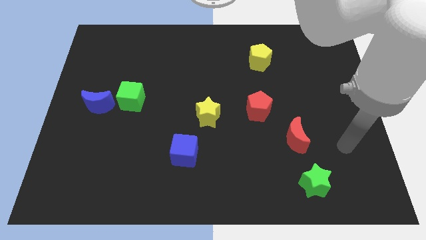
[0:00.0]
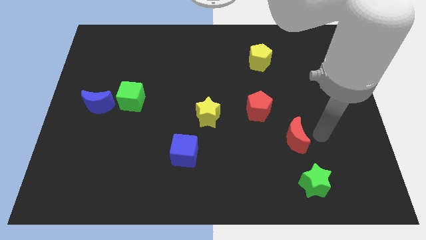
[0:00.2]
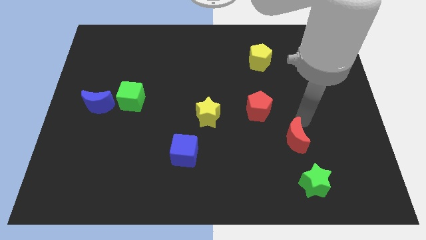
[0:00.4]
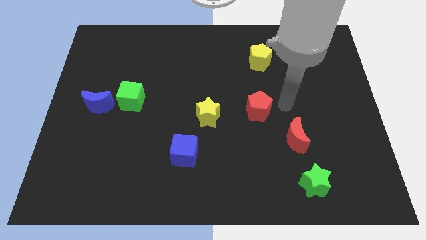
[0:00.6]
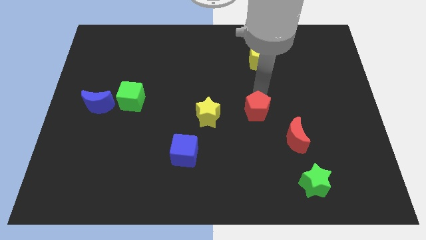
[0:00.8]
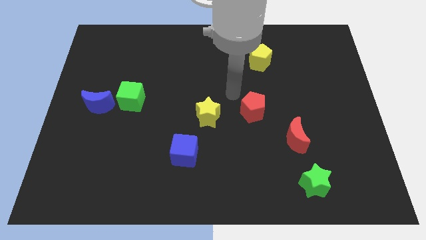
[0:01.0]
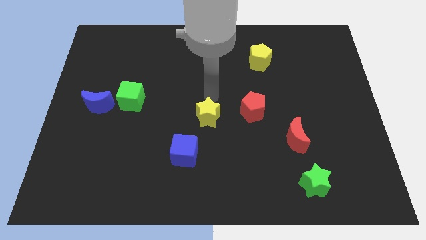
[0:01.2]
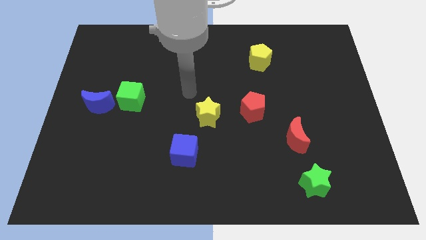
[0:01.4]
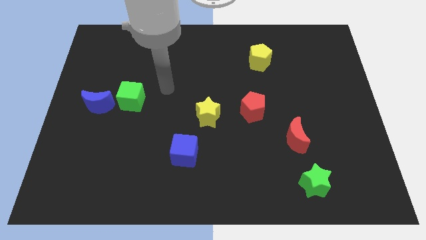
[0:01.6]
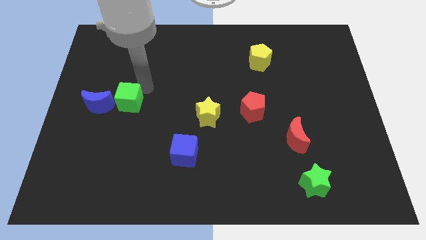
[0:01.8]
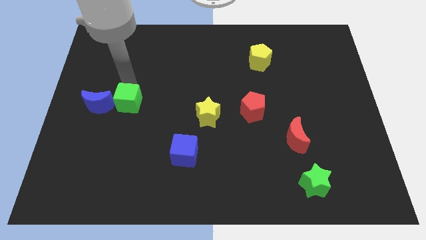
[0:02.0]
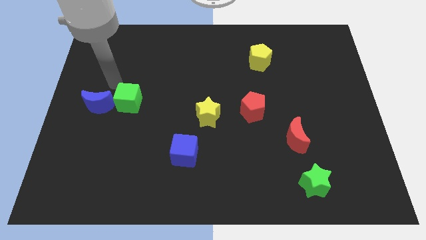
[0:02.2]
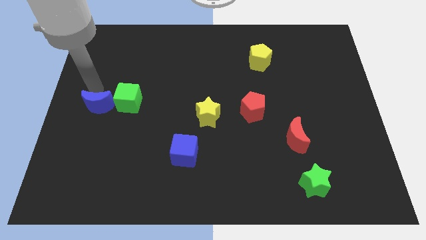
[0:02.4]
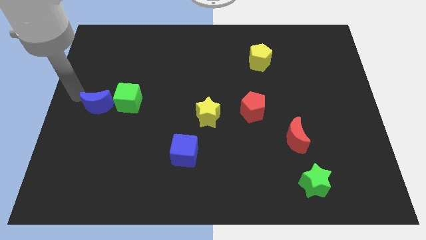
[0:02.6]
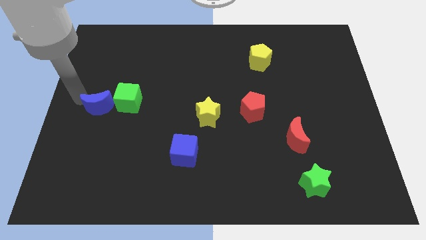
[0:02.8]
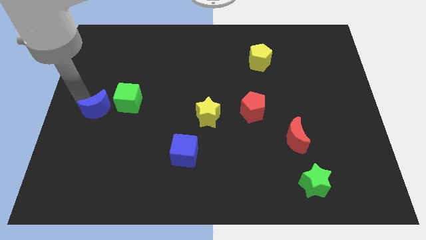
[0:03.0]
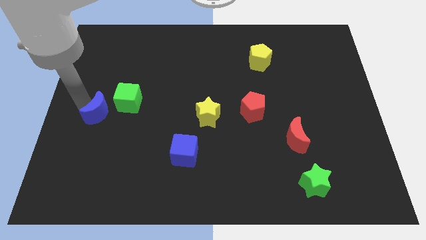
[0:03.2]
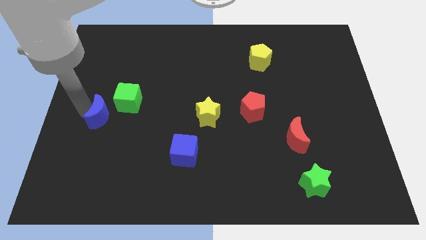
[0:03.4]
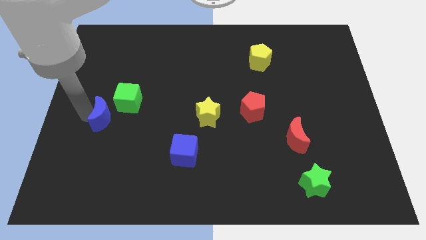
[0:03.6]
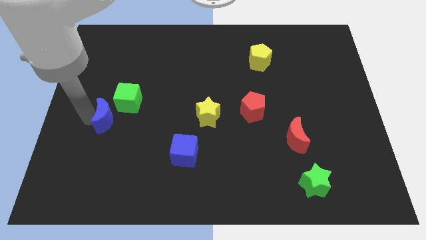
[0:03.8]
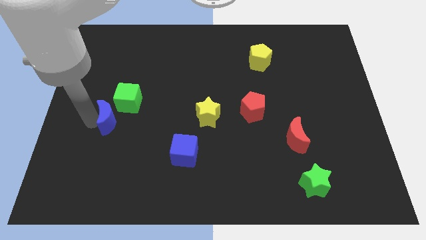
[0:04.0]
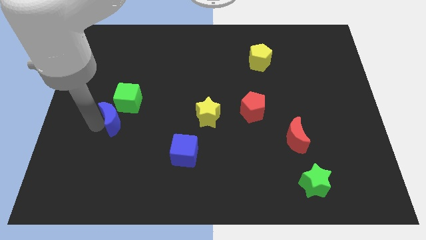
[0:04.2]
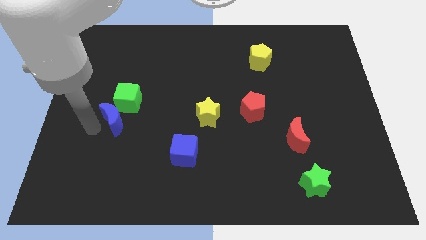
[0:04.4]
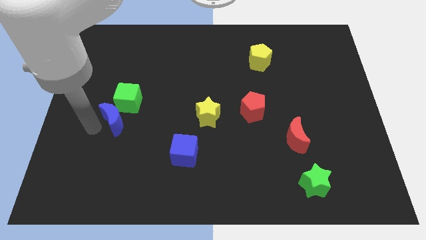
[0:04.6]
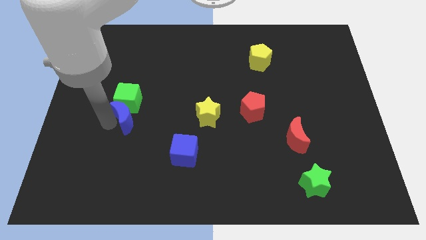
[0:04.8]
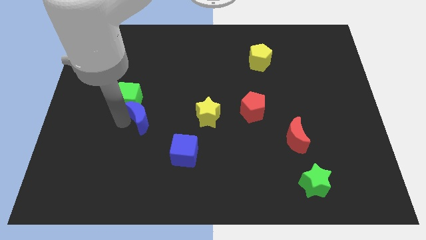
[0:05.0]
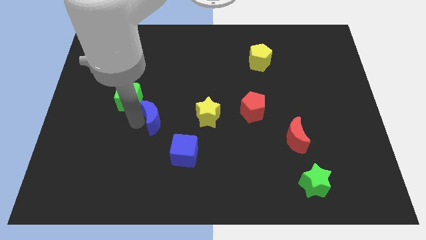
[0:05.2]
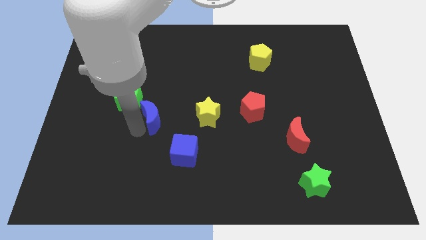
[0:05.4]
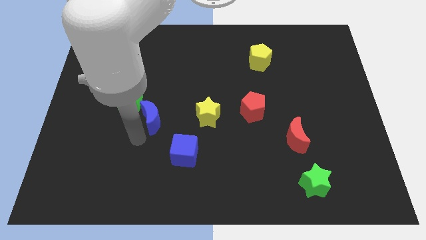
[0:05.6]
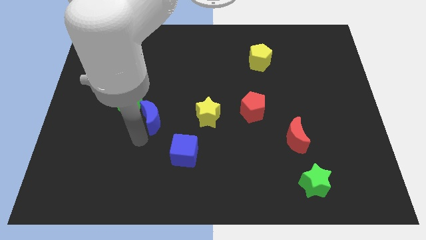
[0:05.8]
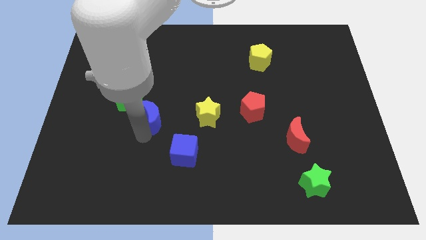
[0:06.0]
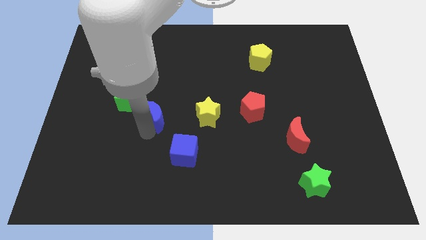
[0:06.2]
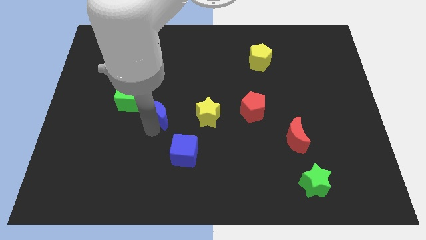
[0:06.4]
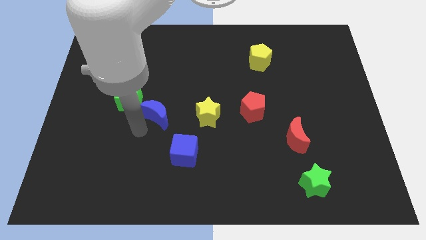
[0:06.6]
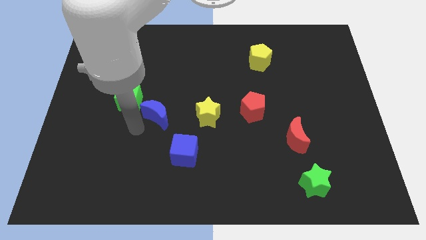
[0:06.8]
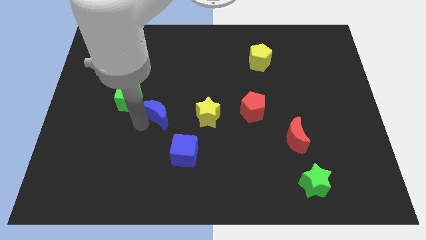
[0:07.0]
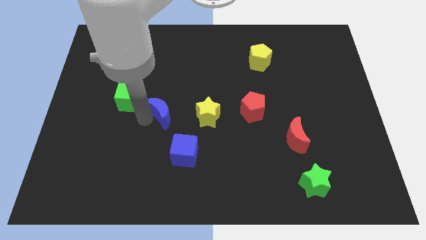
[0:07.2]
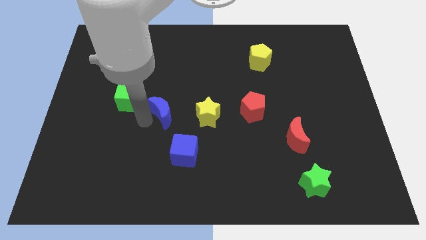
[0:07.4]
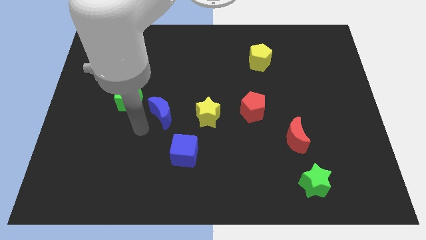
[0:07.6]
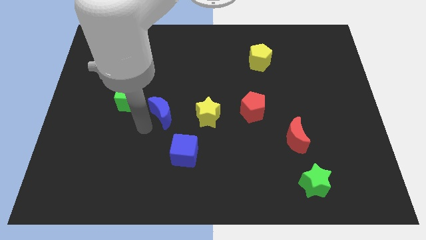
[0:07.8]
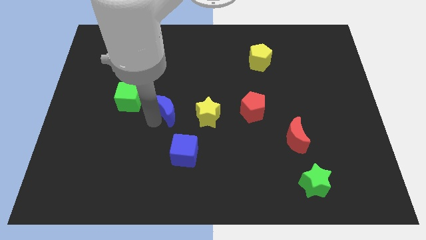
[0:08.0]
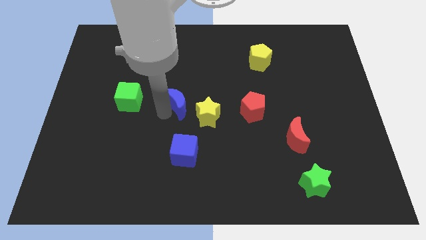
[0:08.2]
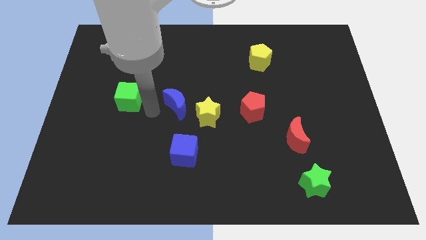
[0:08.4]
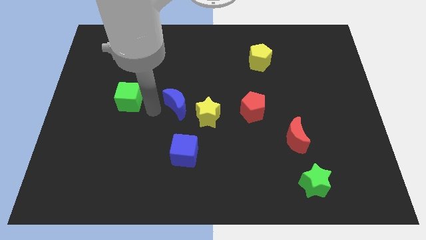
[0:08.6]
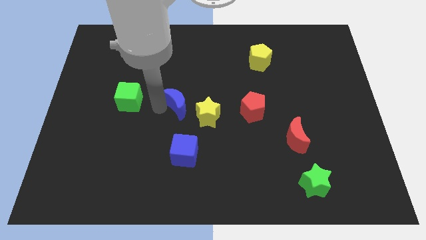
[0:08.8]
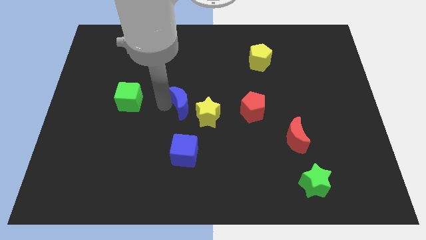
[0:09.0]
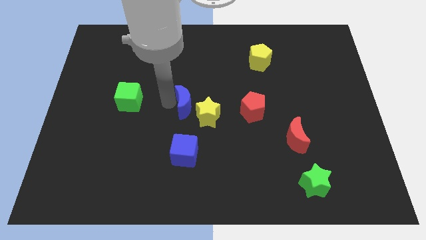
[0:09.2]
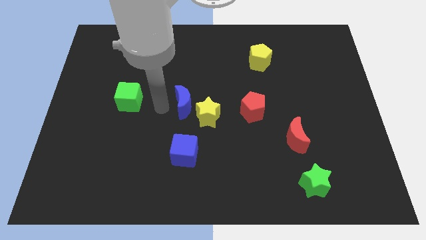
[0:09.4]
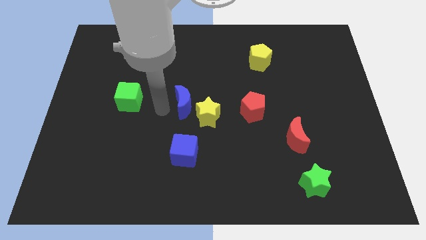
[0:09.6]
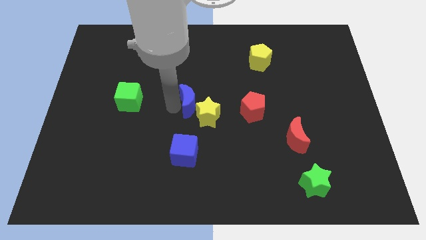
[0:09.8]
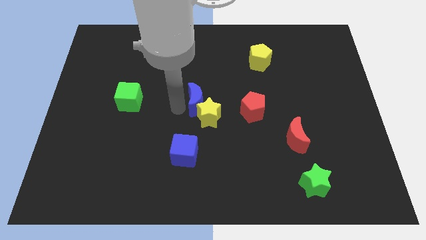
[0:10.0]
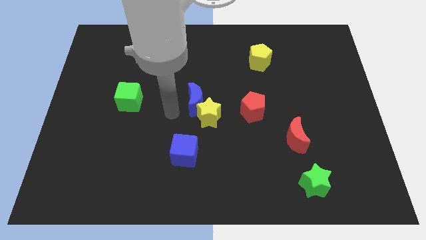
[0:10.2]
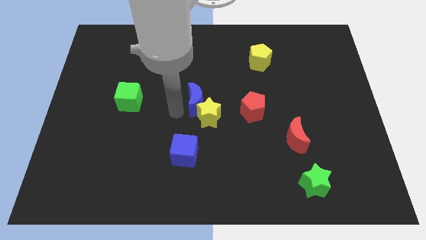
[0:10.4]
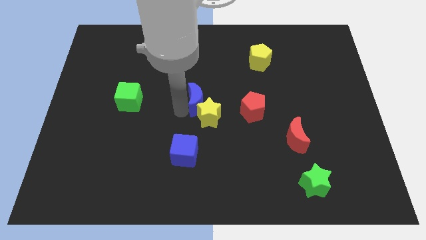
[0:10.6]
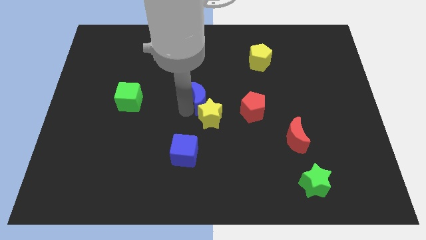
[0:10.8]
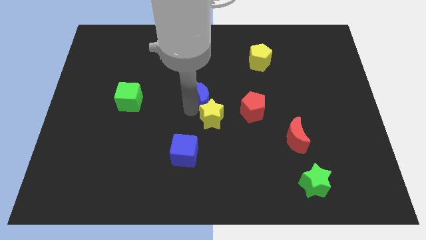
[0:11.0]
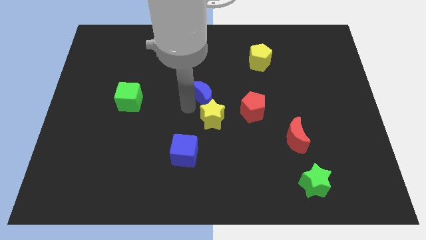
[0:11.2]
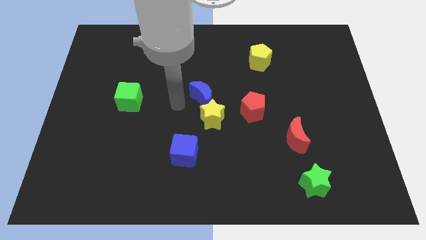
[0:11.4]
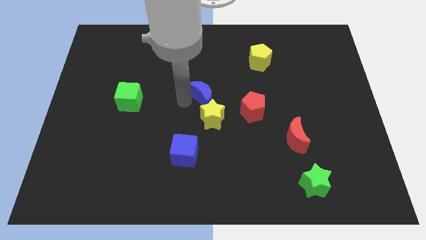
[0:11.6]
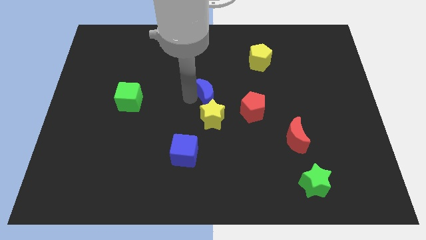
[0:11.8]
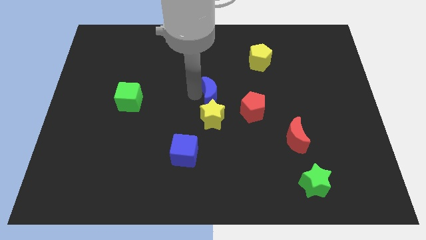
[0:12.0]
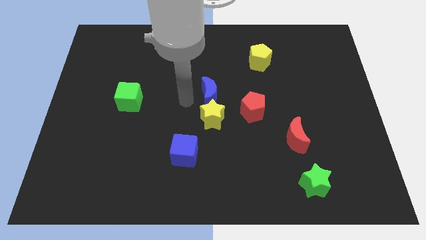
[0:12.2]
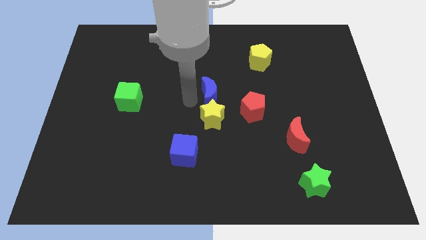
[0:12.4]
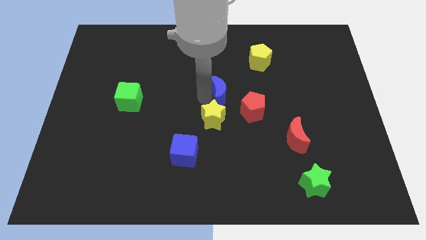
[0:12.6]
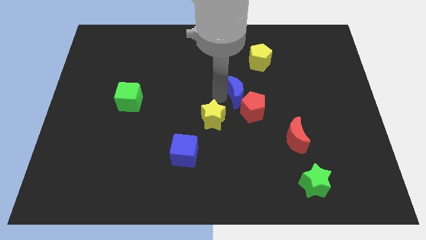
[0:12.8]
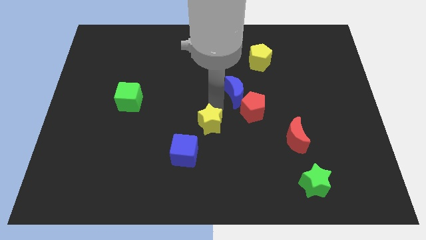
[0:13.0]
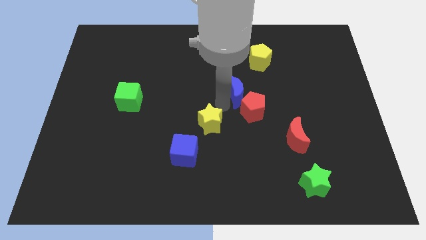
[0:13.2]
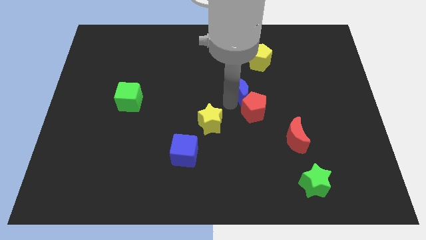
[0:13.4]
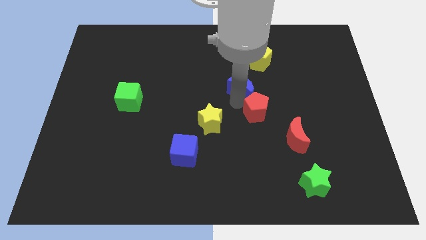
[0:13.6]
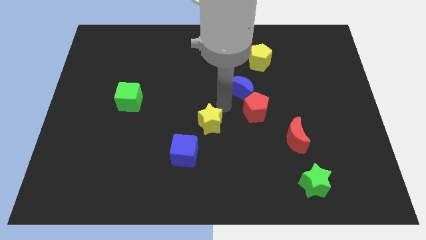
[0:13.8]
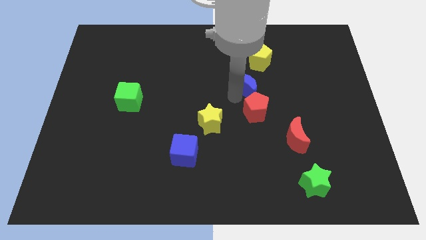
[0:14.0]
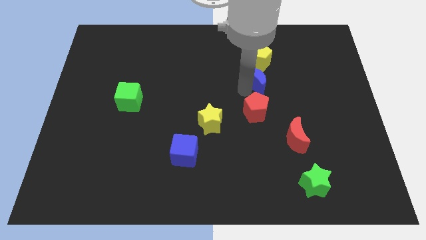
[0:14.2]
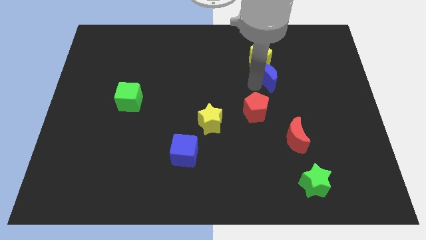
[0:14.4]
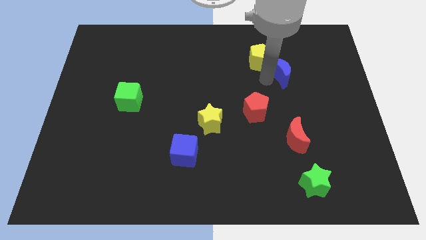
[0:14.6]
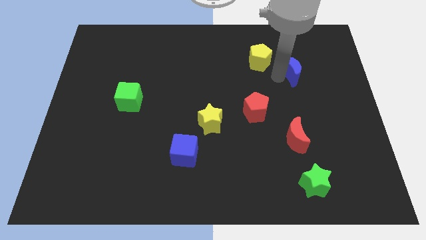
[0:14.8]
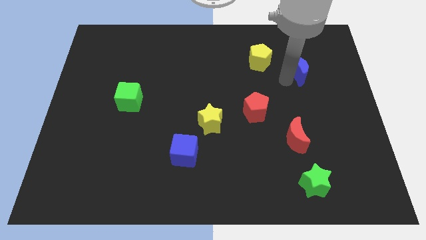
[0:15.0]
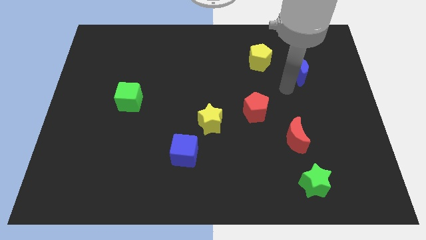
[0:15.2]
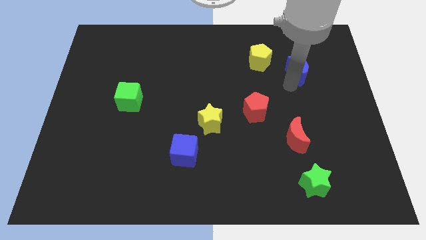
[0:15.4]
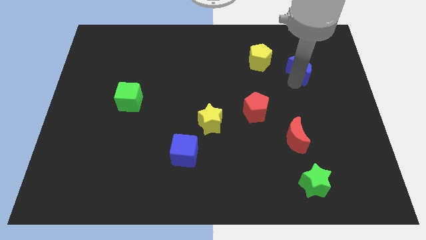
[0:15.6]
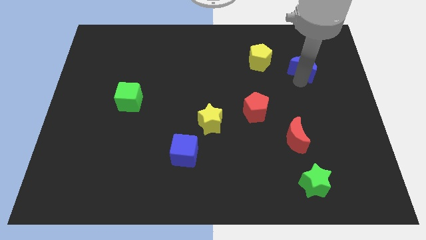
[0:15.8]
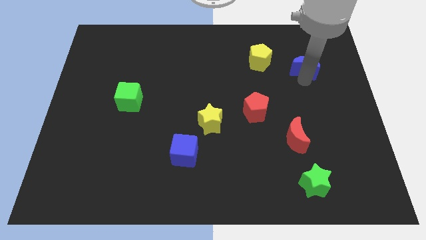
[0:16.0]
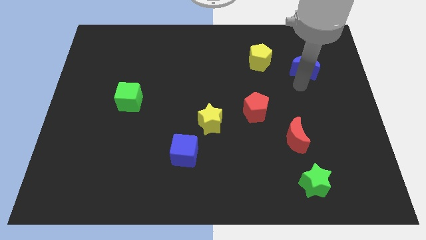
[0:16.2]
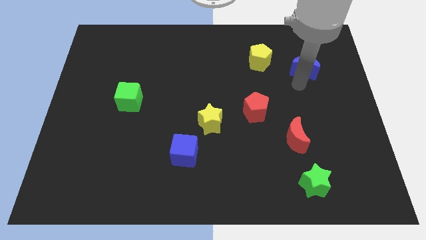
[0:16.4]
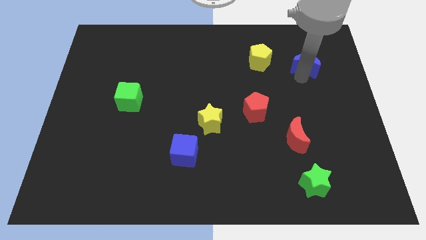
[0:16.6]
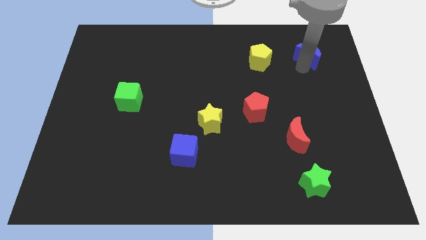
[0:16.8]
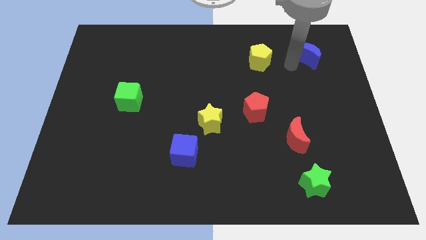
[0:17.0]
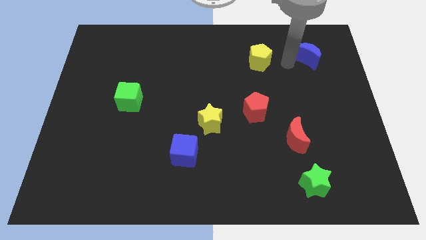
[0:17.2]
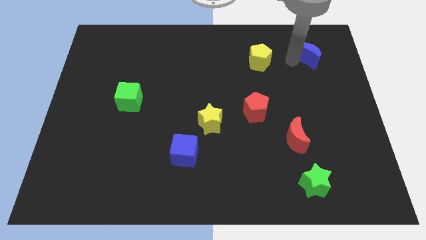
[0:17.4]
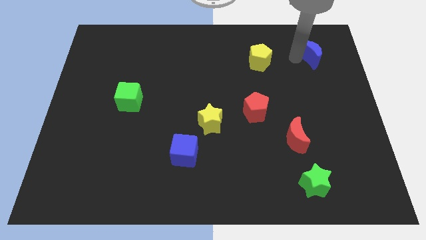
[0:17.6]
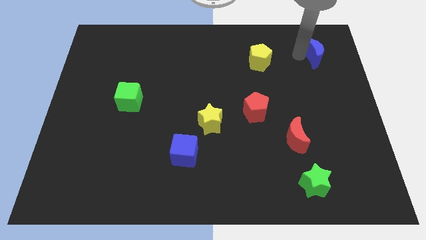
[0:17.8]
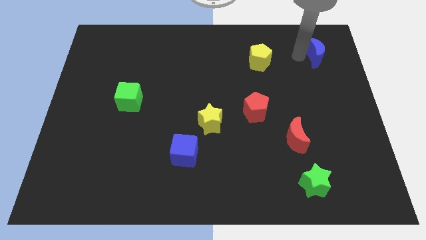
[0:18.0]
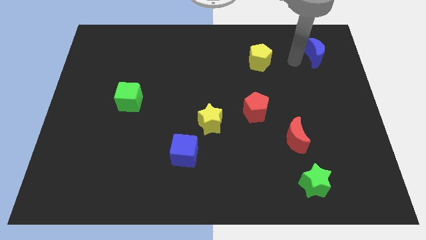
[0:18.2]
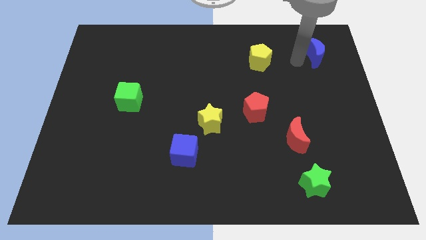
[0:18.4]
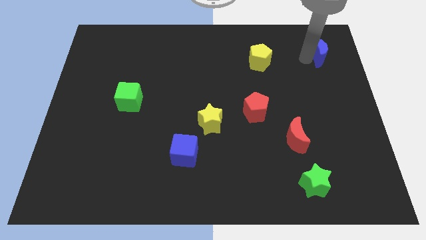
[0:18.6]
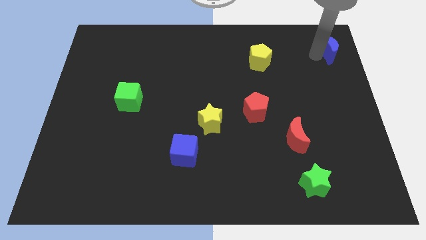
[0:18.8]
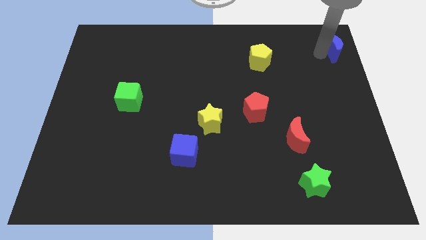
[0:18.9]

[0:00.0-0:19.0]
move the blue moon to the top right of the board
